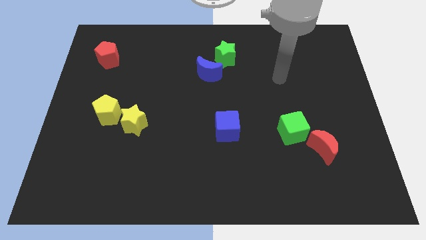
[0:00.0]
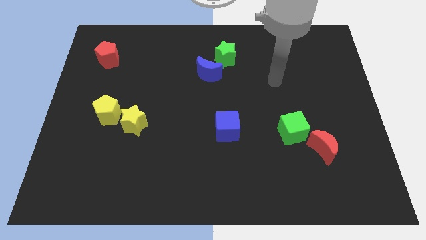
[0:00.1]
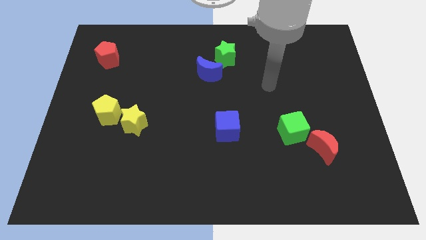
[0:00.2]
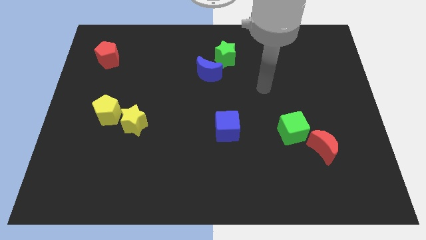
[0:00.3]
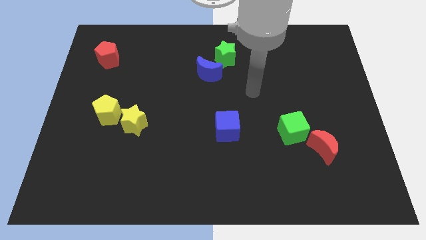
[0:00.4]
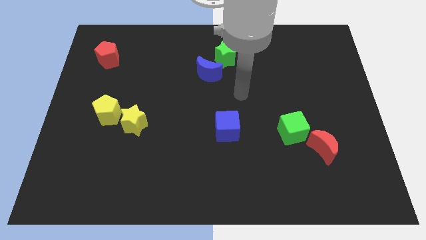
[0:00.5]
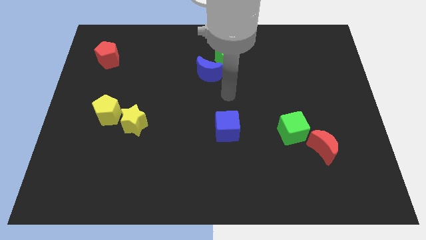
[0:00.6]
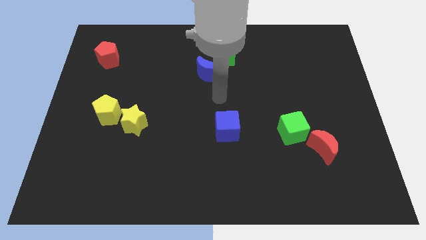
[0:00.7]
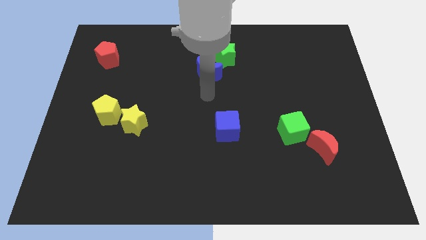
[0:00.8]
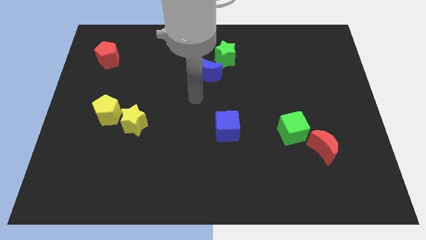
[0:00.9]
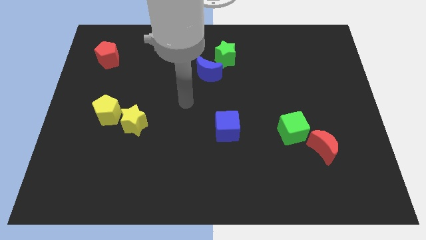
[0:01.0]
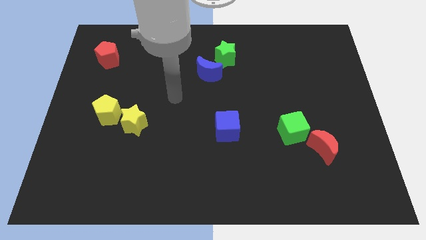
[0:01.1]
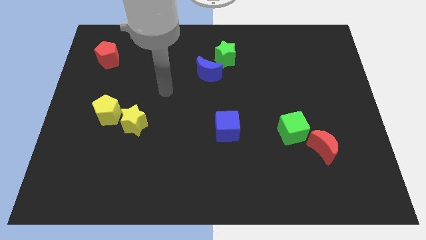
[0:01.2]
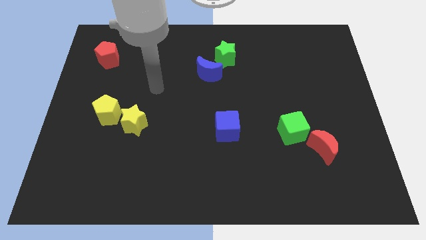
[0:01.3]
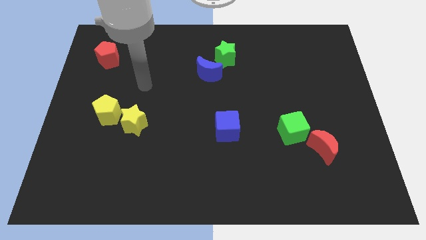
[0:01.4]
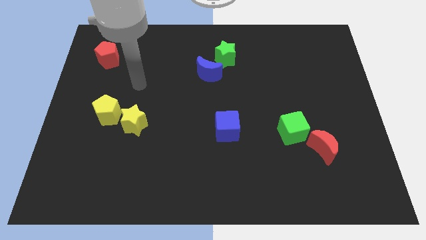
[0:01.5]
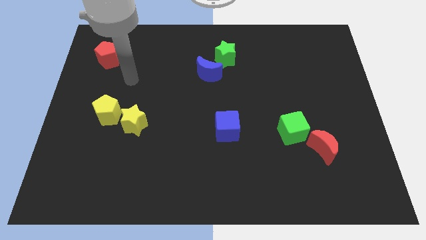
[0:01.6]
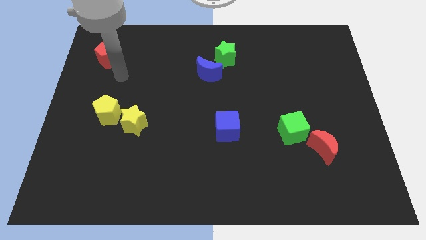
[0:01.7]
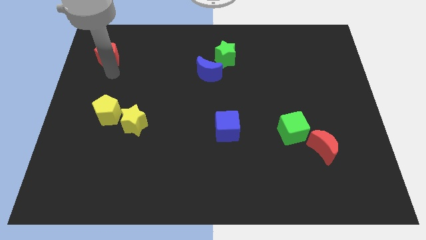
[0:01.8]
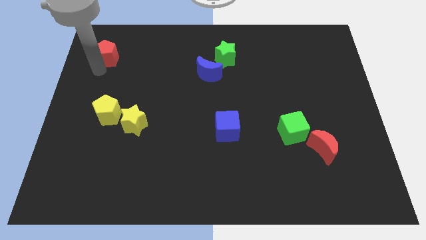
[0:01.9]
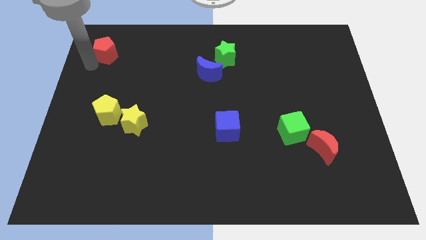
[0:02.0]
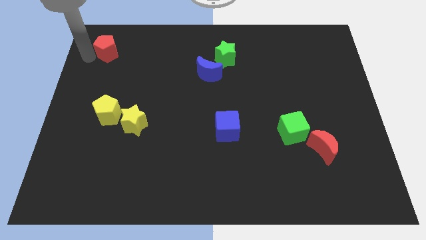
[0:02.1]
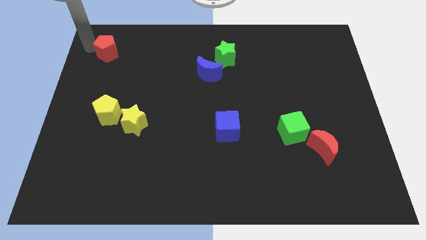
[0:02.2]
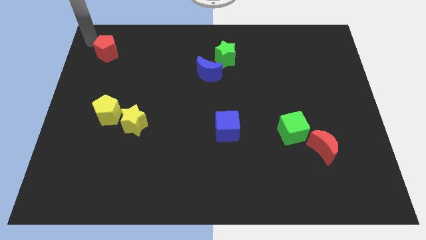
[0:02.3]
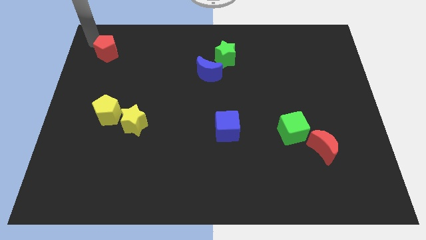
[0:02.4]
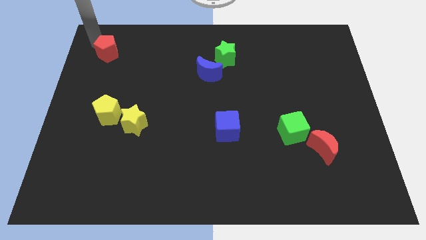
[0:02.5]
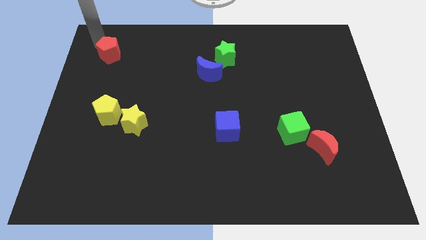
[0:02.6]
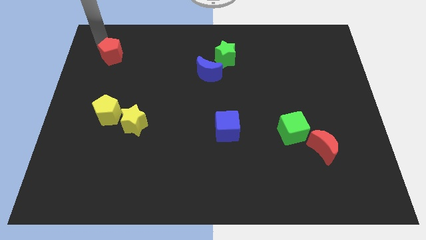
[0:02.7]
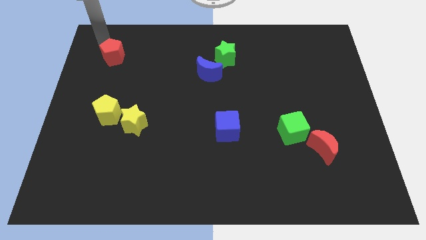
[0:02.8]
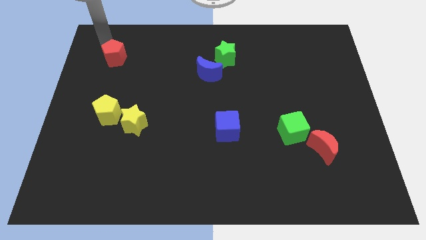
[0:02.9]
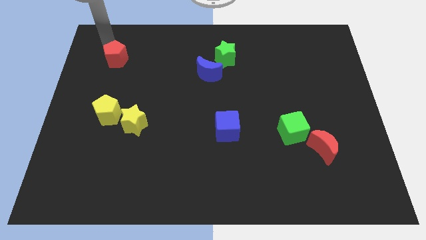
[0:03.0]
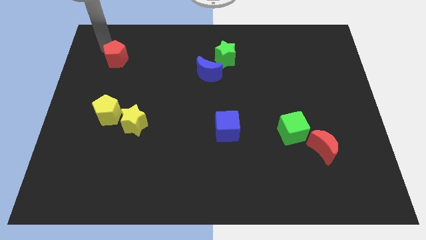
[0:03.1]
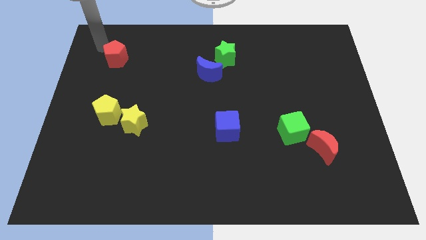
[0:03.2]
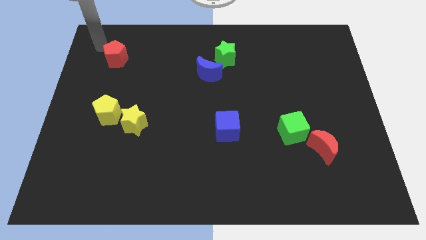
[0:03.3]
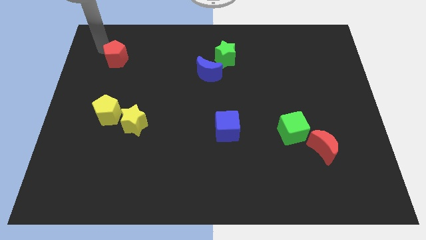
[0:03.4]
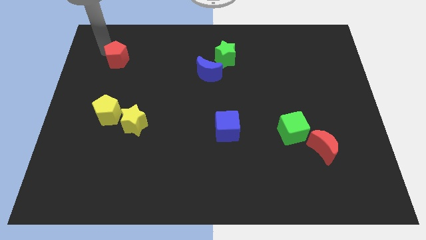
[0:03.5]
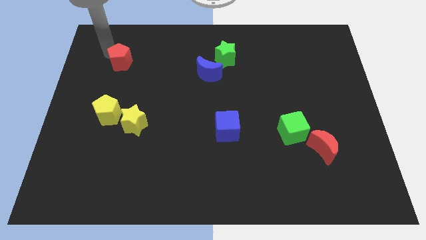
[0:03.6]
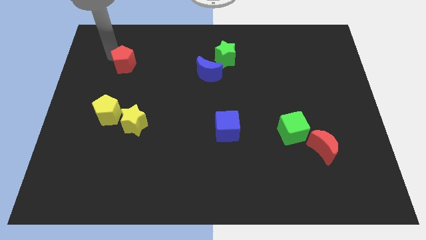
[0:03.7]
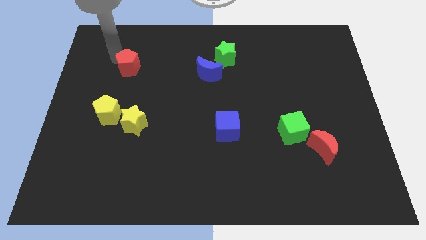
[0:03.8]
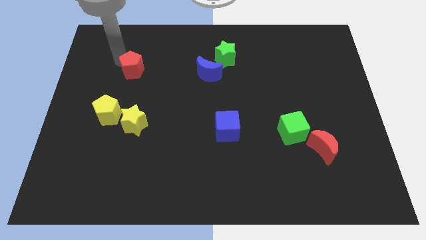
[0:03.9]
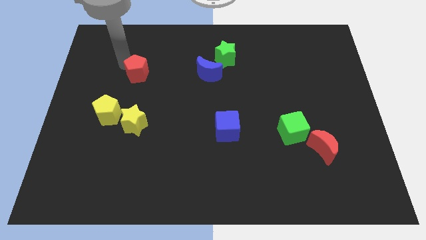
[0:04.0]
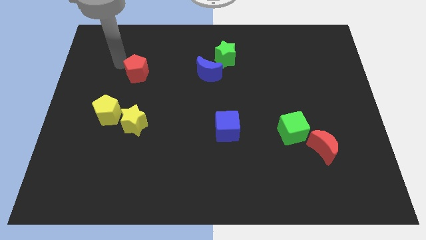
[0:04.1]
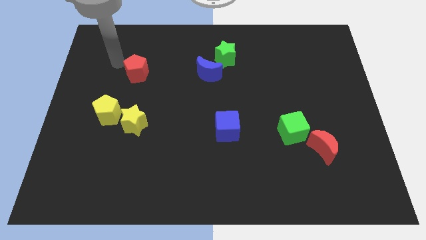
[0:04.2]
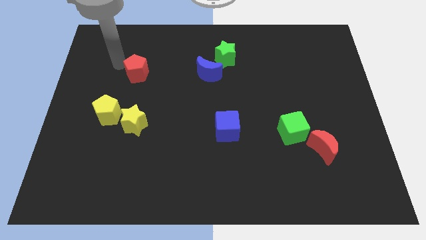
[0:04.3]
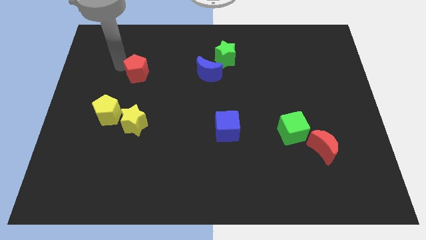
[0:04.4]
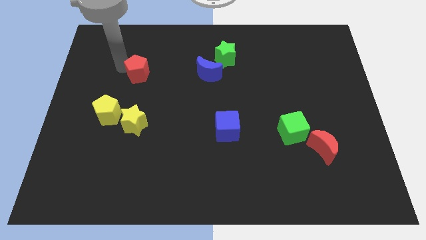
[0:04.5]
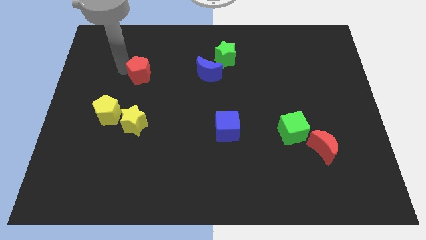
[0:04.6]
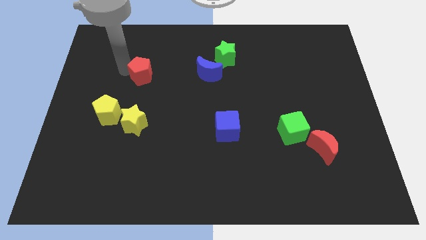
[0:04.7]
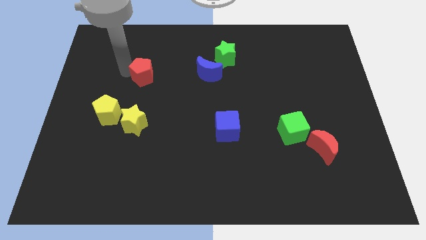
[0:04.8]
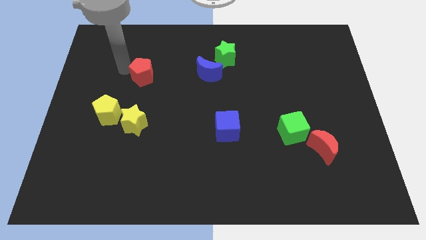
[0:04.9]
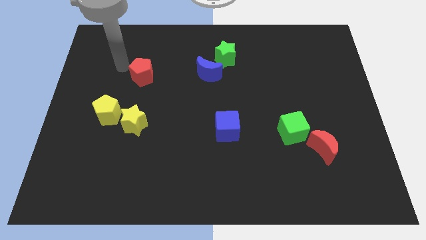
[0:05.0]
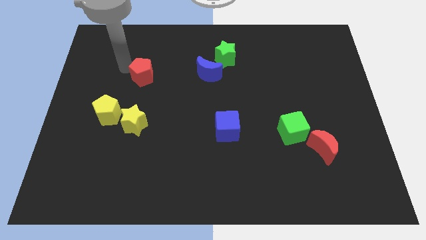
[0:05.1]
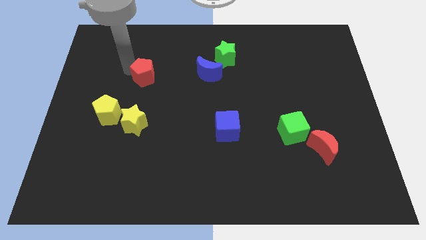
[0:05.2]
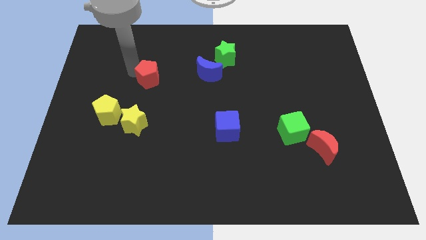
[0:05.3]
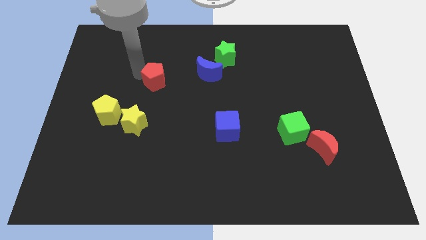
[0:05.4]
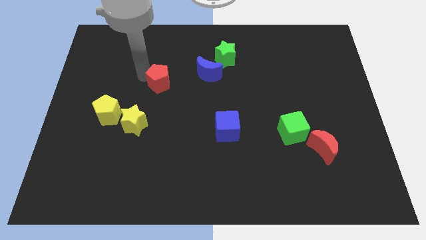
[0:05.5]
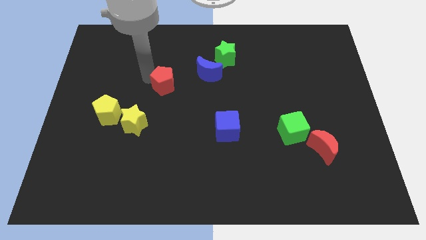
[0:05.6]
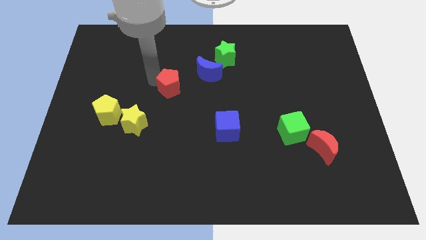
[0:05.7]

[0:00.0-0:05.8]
slide the red pentagon to the middle

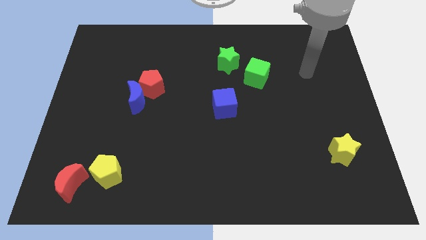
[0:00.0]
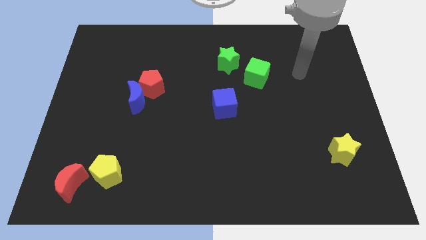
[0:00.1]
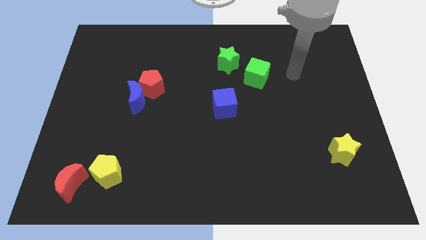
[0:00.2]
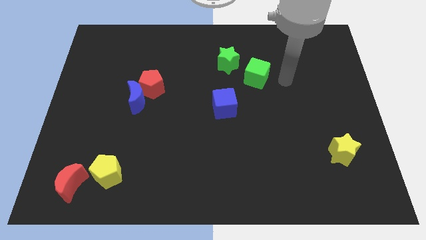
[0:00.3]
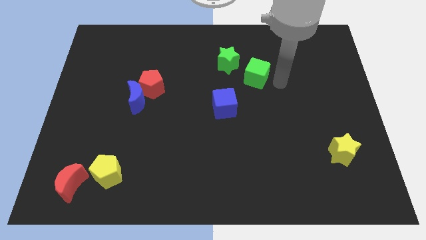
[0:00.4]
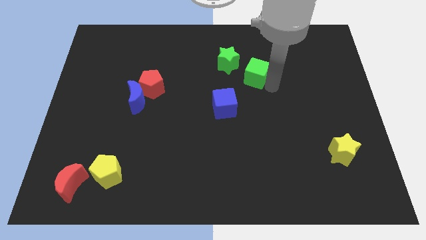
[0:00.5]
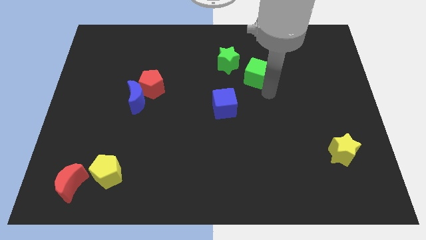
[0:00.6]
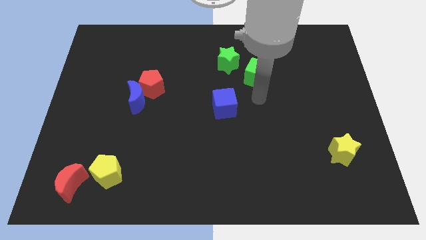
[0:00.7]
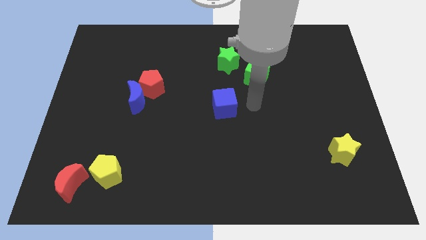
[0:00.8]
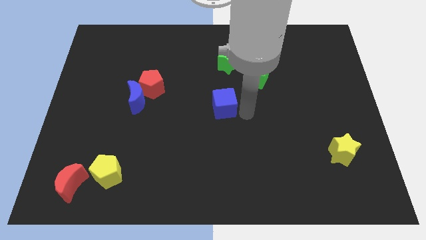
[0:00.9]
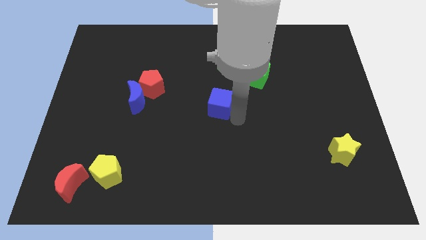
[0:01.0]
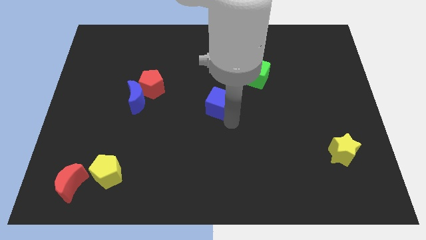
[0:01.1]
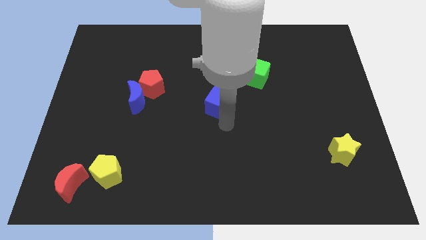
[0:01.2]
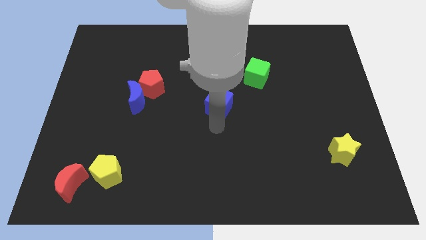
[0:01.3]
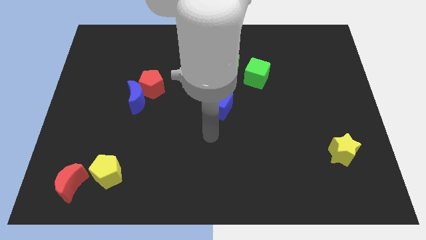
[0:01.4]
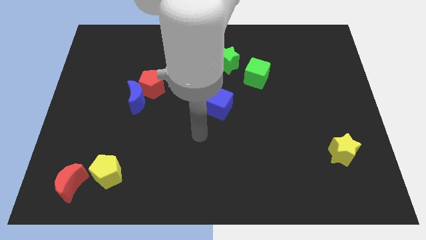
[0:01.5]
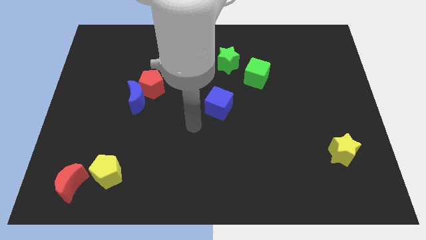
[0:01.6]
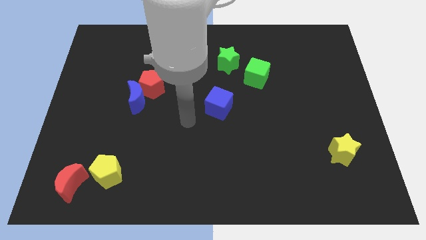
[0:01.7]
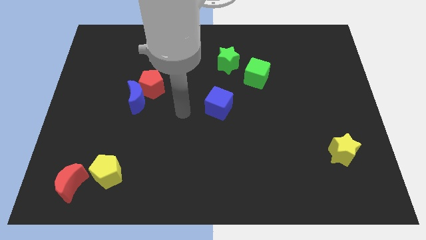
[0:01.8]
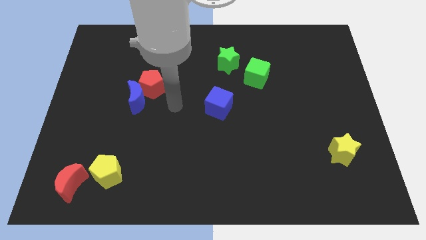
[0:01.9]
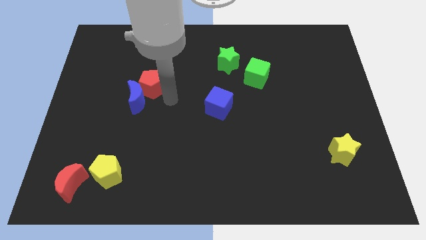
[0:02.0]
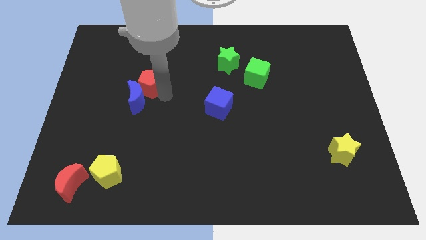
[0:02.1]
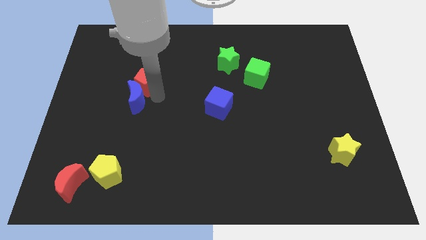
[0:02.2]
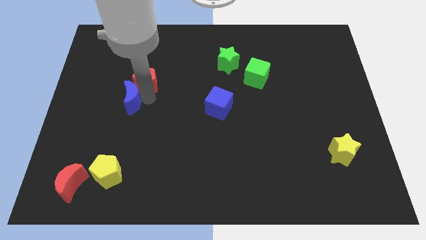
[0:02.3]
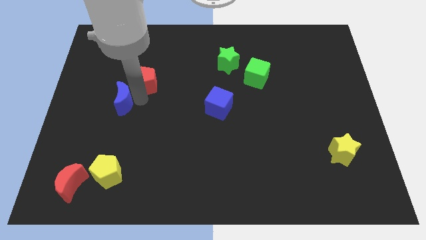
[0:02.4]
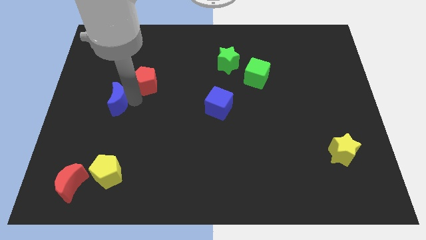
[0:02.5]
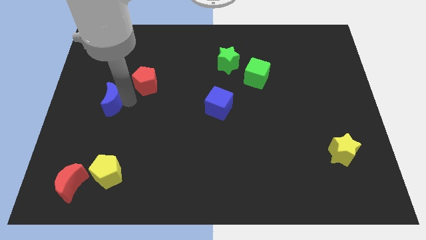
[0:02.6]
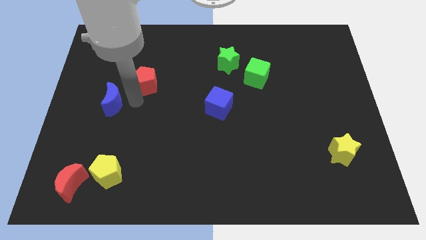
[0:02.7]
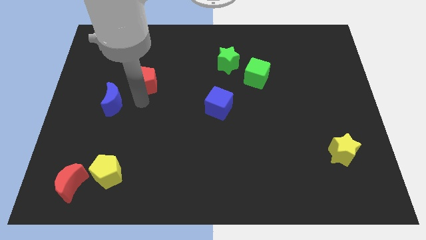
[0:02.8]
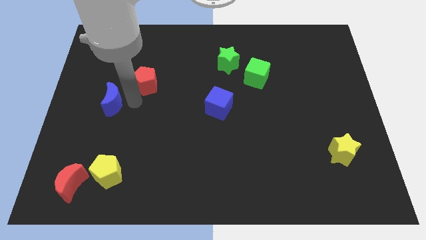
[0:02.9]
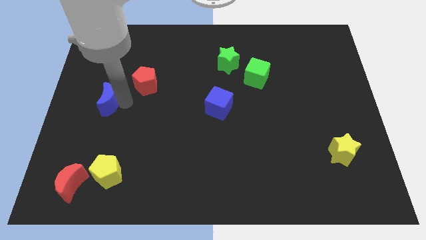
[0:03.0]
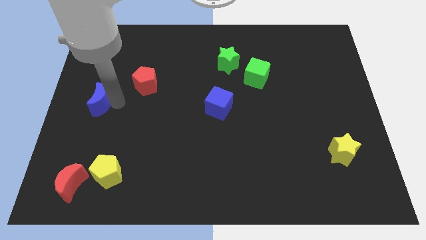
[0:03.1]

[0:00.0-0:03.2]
slide the blue moon to the left side of the board
